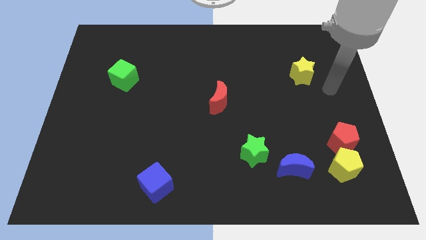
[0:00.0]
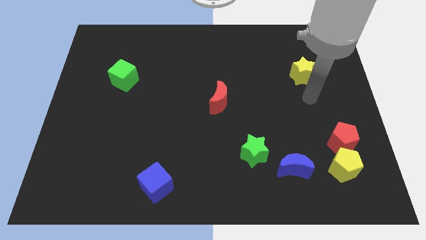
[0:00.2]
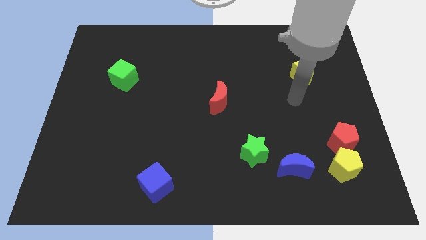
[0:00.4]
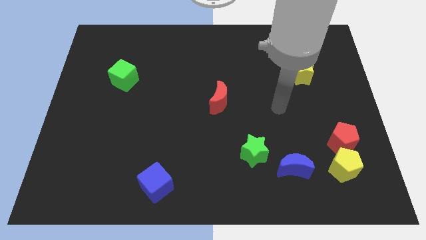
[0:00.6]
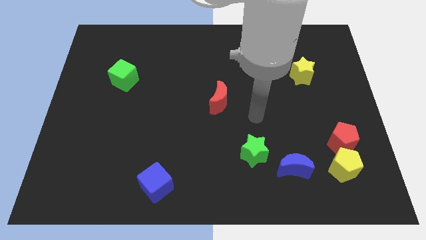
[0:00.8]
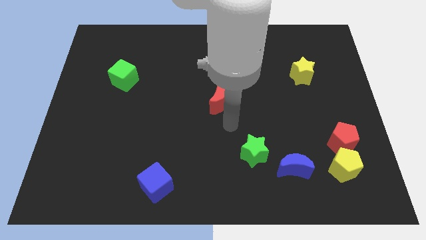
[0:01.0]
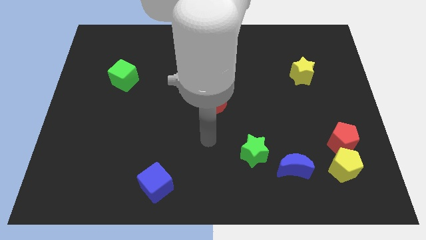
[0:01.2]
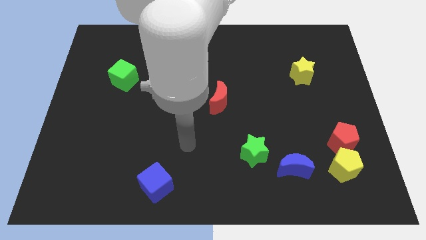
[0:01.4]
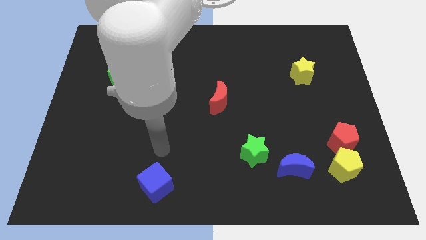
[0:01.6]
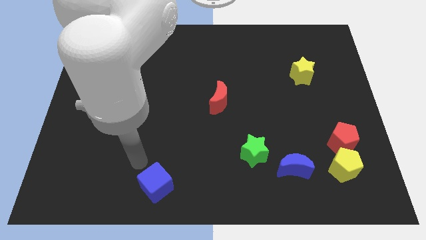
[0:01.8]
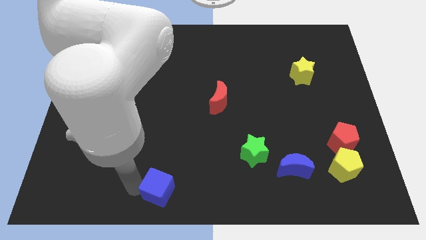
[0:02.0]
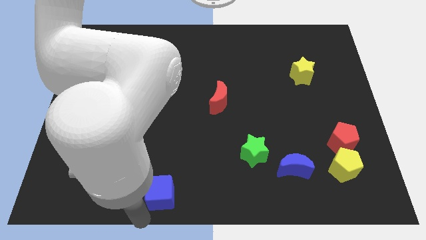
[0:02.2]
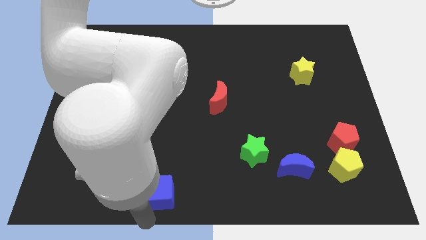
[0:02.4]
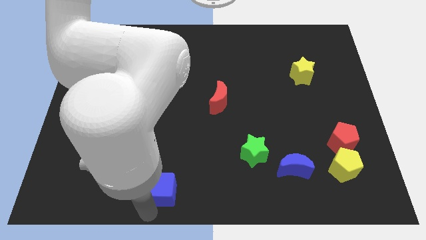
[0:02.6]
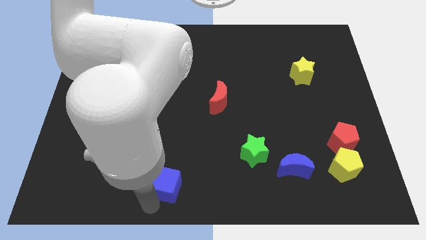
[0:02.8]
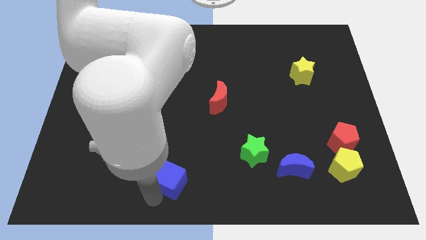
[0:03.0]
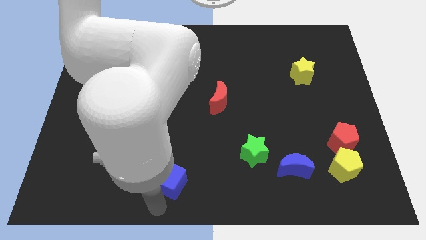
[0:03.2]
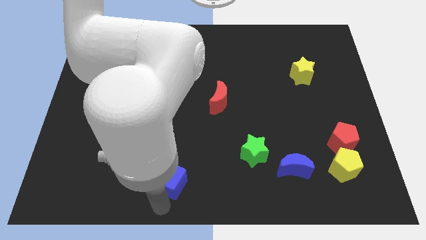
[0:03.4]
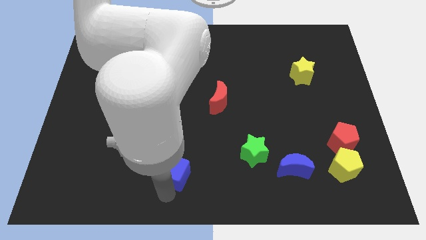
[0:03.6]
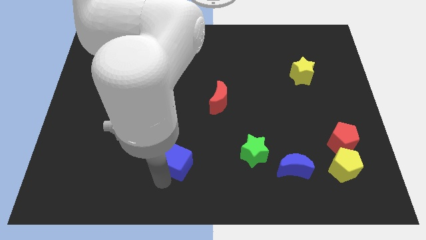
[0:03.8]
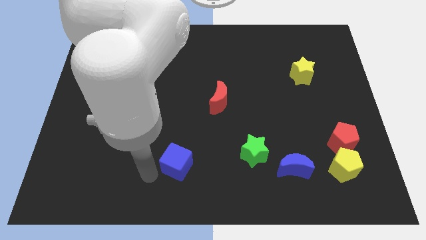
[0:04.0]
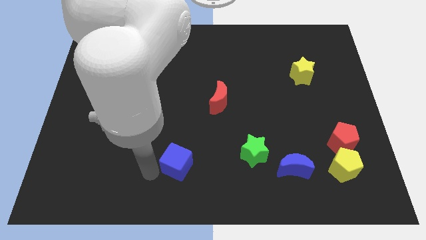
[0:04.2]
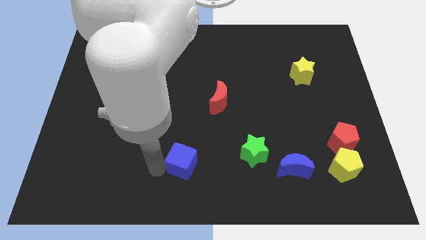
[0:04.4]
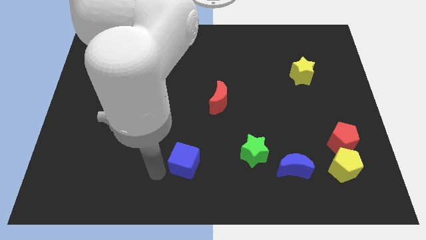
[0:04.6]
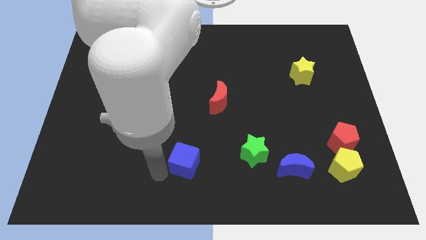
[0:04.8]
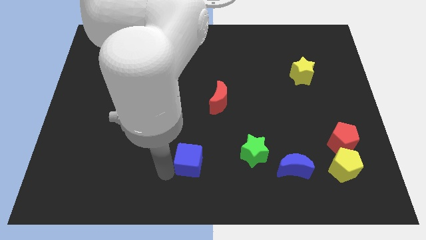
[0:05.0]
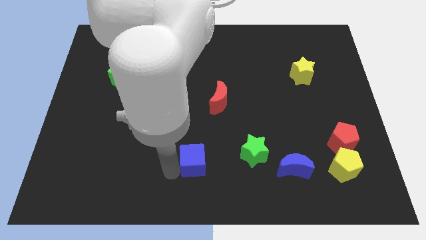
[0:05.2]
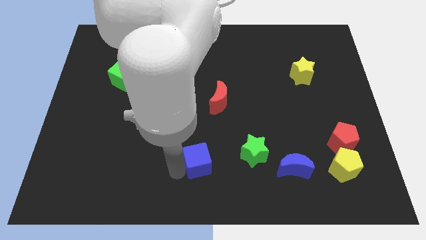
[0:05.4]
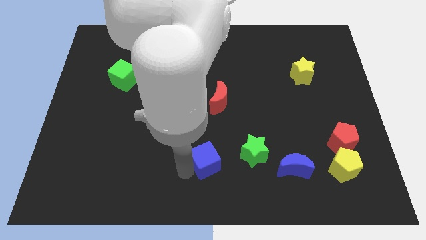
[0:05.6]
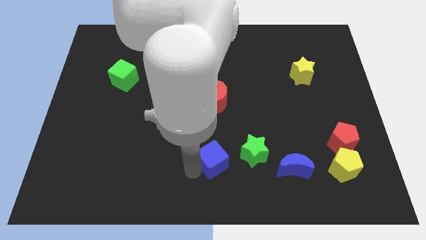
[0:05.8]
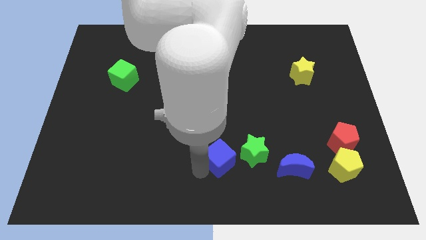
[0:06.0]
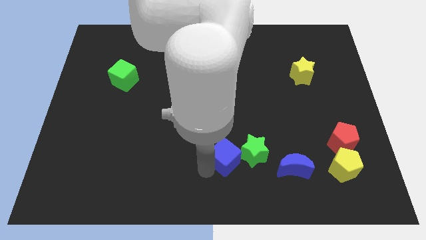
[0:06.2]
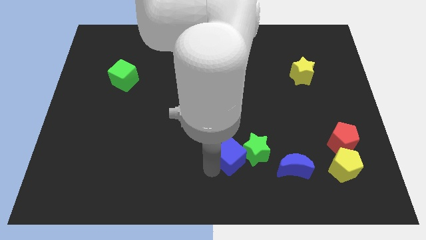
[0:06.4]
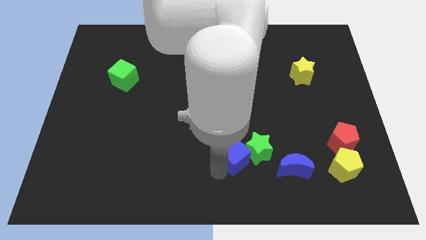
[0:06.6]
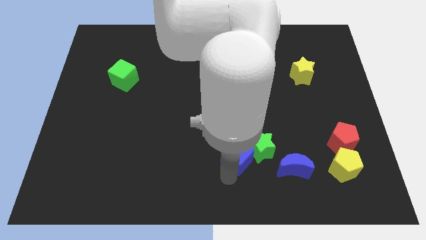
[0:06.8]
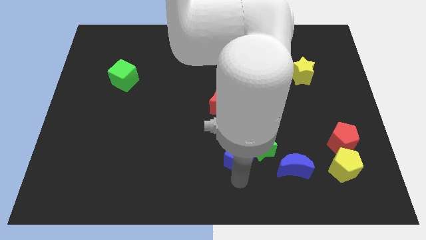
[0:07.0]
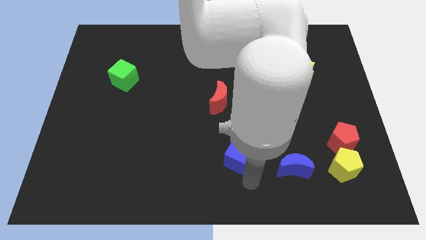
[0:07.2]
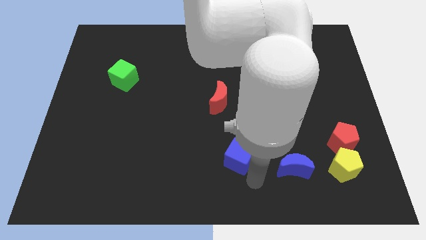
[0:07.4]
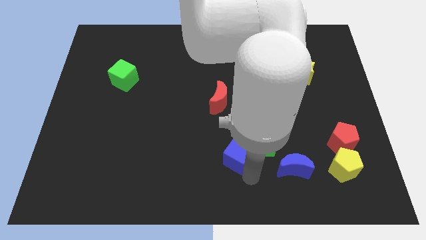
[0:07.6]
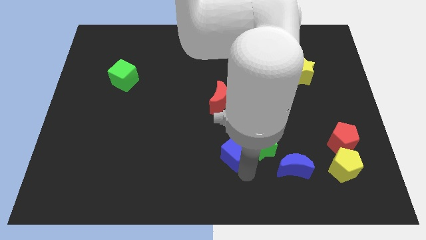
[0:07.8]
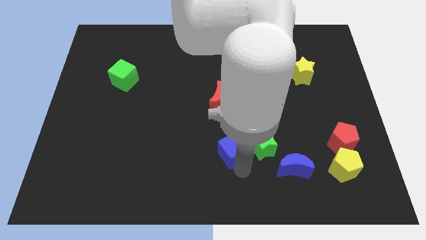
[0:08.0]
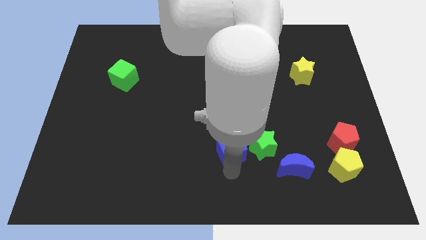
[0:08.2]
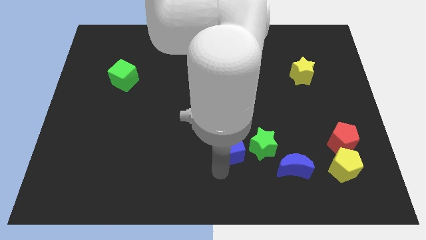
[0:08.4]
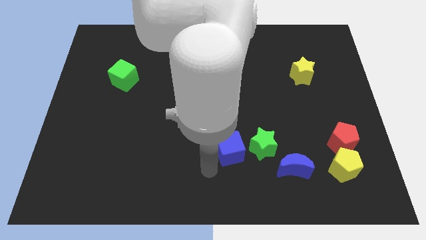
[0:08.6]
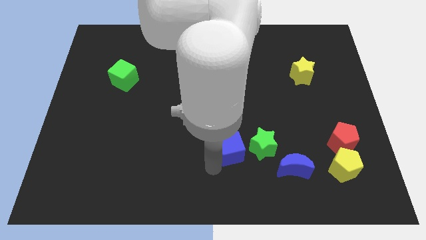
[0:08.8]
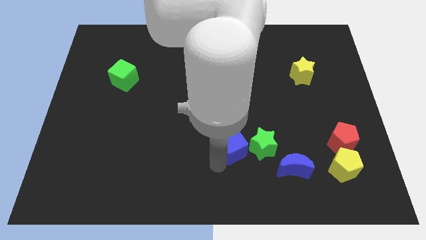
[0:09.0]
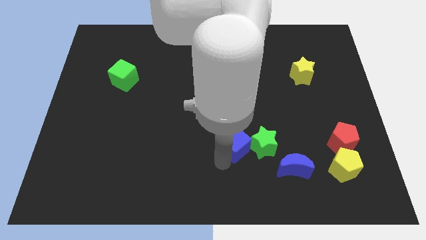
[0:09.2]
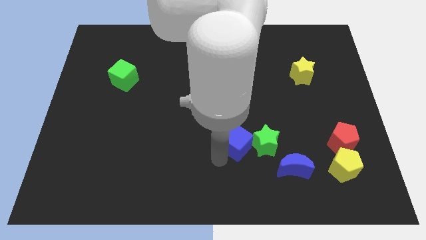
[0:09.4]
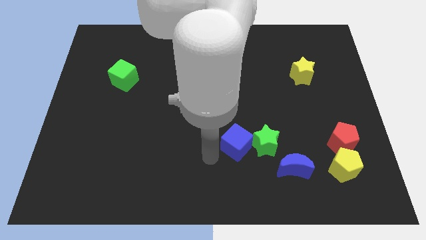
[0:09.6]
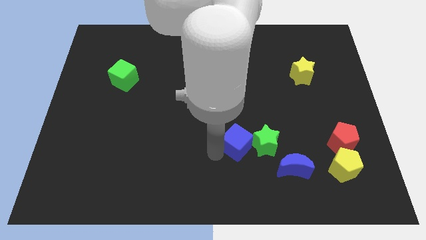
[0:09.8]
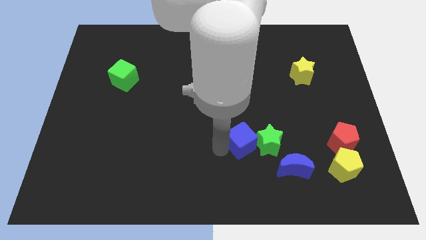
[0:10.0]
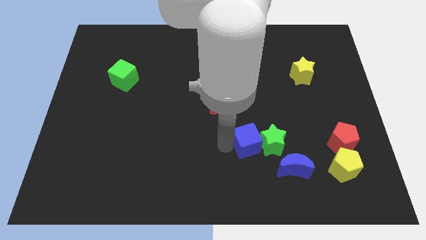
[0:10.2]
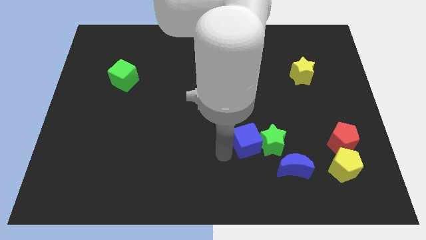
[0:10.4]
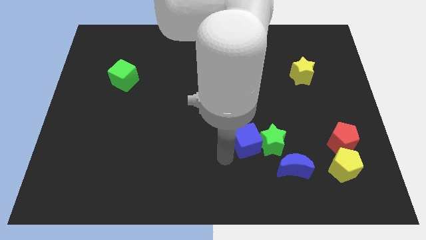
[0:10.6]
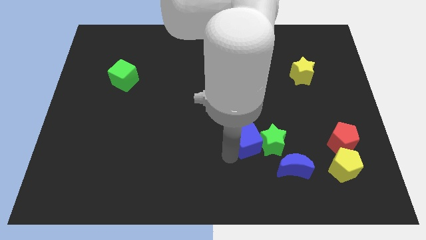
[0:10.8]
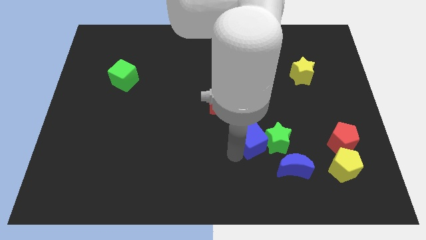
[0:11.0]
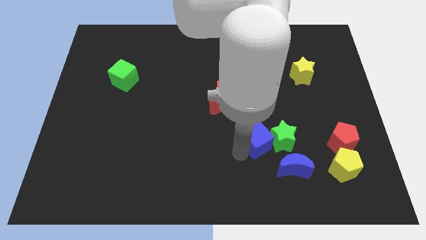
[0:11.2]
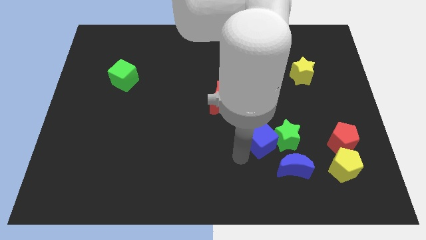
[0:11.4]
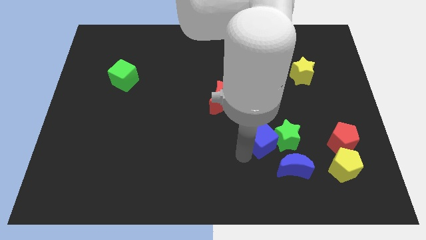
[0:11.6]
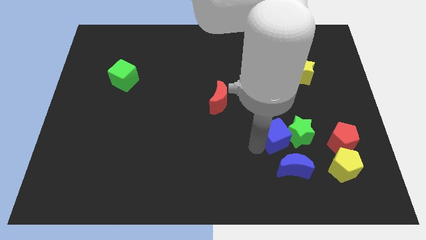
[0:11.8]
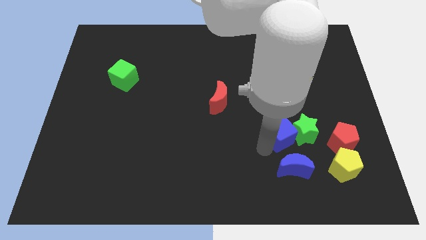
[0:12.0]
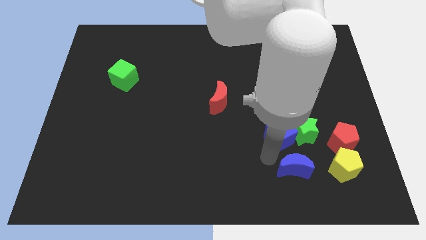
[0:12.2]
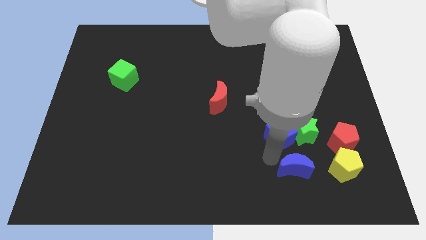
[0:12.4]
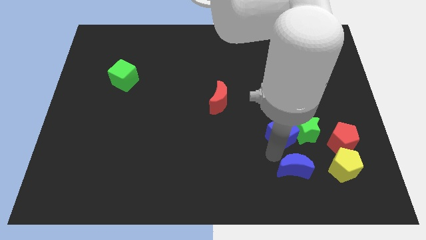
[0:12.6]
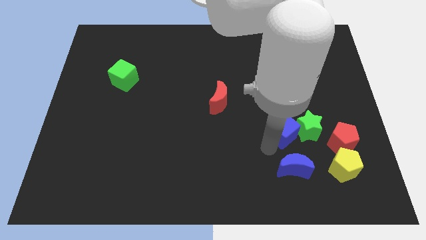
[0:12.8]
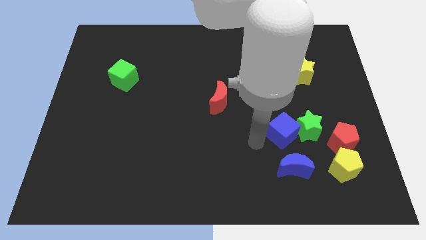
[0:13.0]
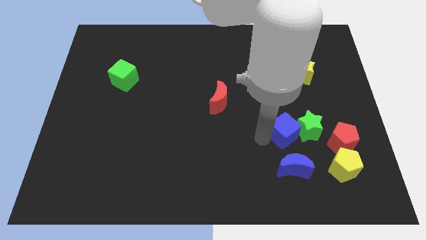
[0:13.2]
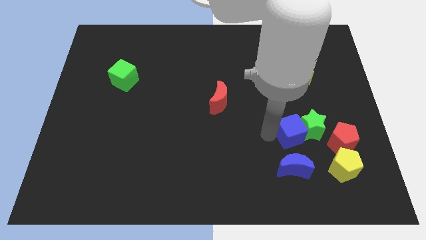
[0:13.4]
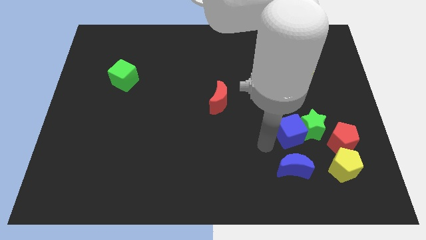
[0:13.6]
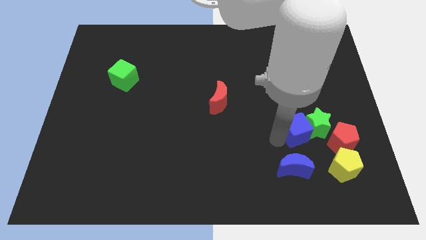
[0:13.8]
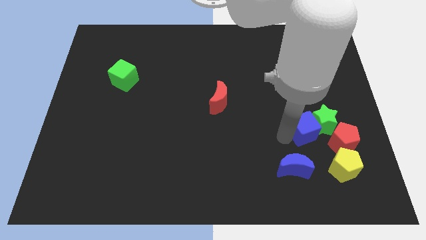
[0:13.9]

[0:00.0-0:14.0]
slide the blue cube to the top left of the red pentagon
